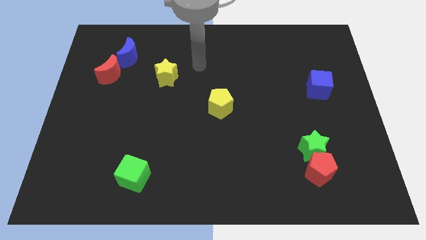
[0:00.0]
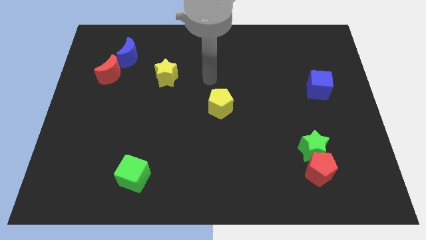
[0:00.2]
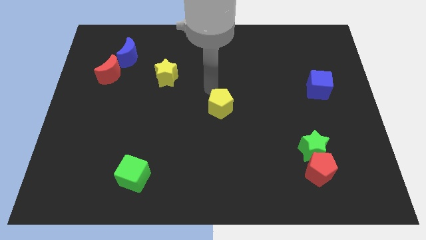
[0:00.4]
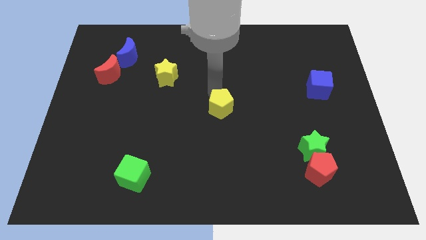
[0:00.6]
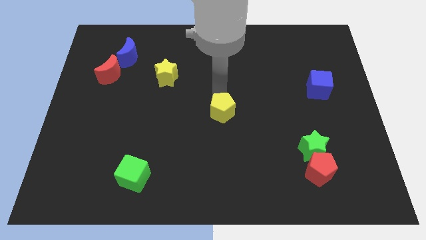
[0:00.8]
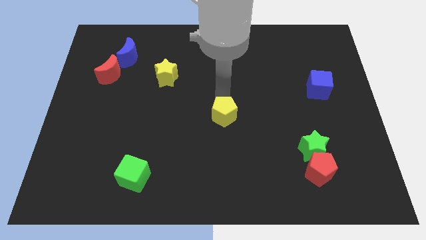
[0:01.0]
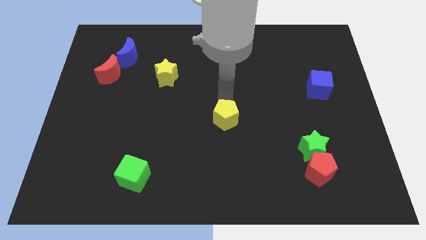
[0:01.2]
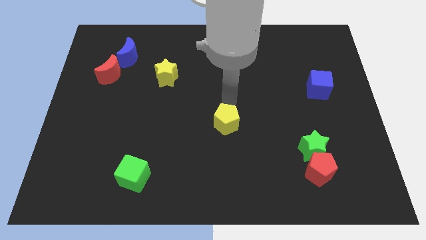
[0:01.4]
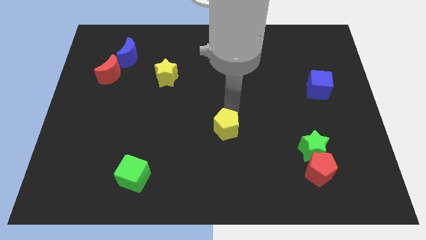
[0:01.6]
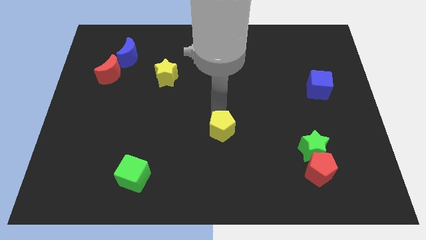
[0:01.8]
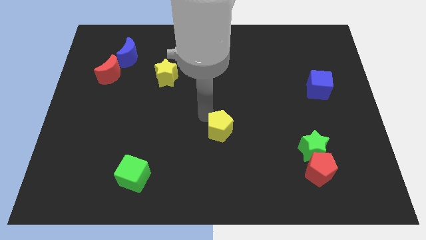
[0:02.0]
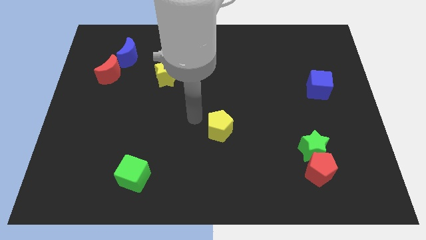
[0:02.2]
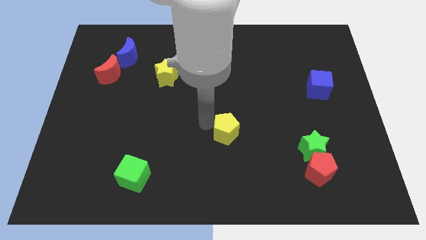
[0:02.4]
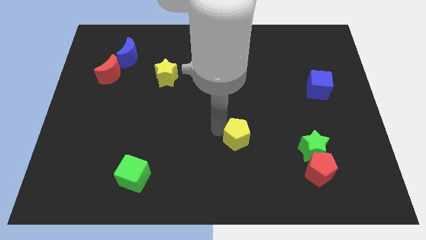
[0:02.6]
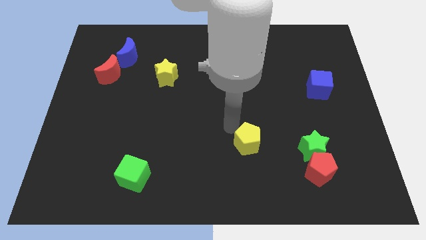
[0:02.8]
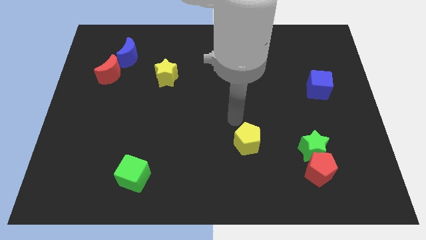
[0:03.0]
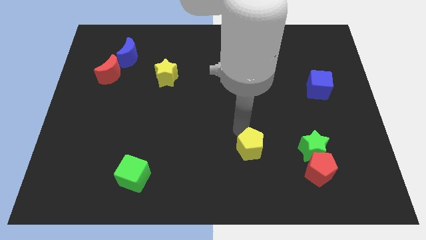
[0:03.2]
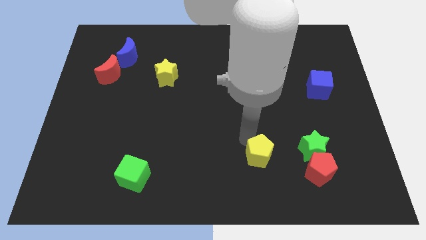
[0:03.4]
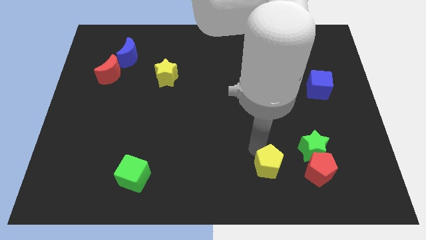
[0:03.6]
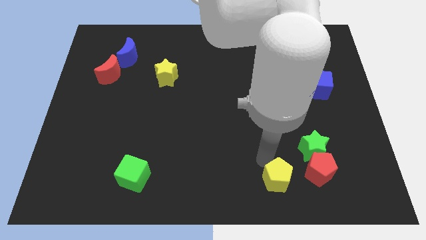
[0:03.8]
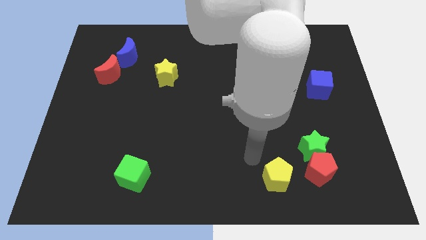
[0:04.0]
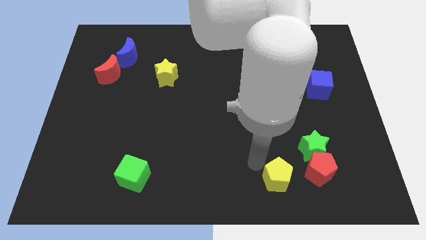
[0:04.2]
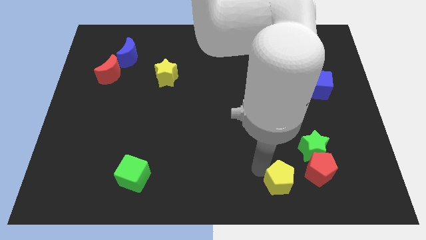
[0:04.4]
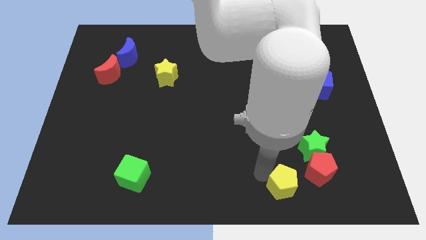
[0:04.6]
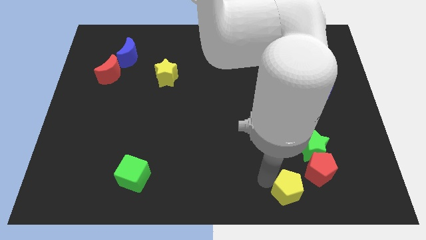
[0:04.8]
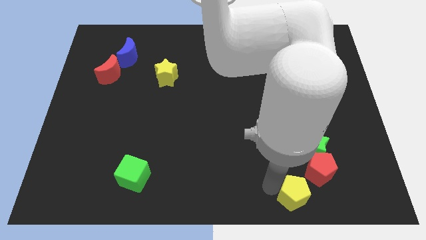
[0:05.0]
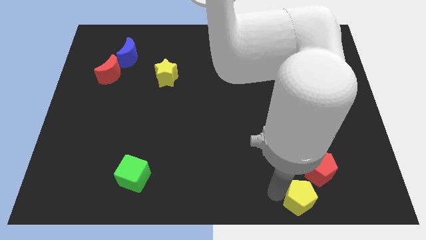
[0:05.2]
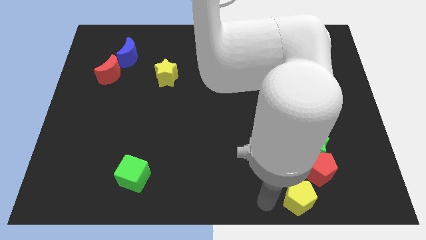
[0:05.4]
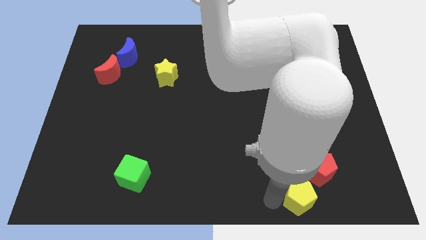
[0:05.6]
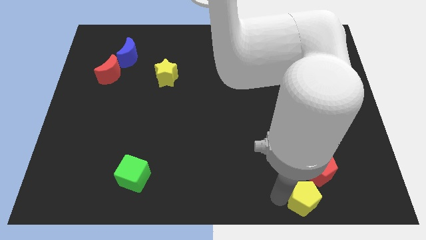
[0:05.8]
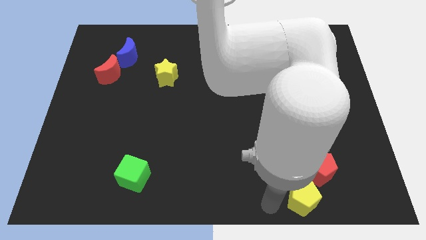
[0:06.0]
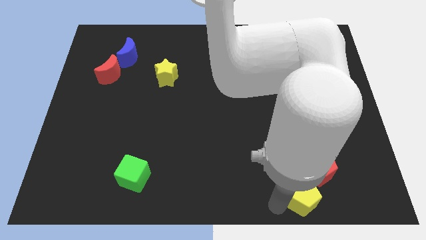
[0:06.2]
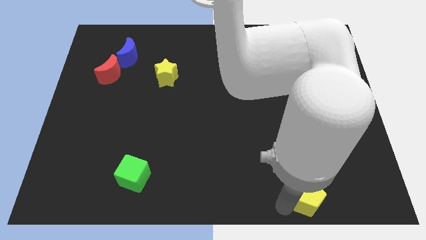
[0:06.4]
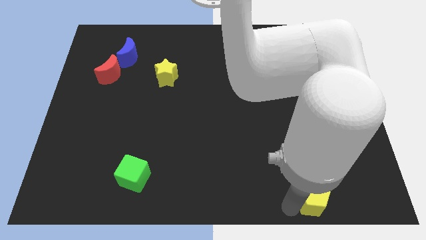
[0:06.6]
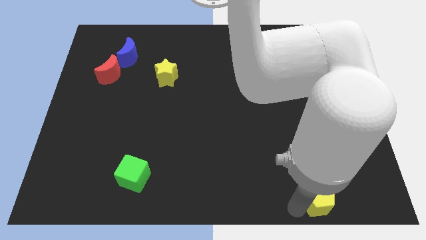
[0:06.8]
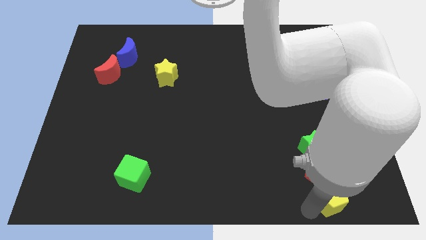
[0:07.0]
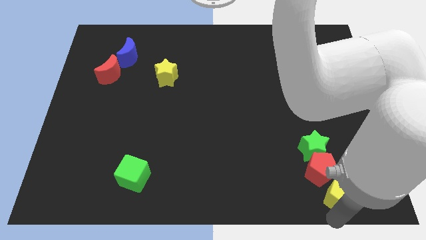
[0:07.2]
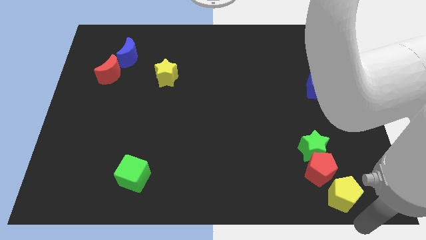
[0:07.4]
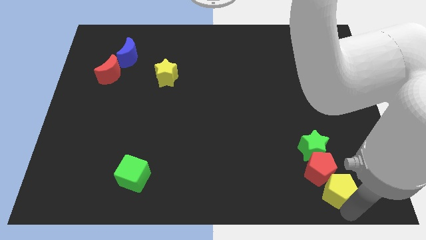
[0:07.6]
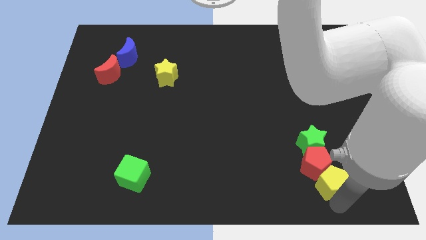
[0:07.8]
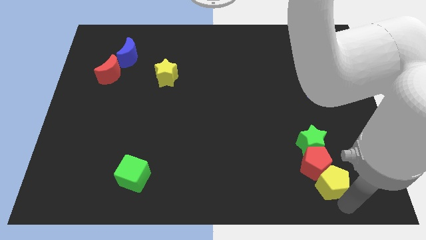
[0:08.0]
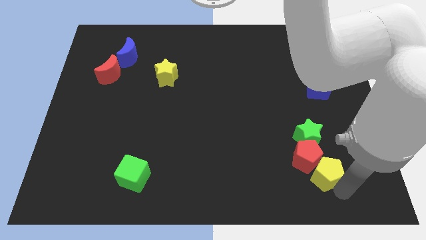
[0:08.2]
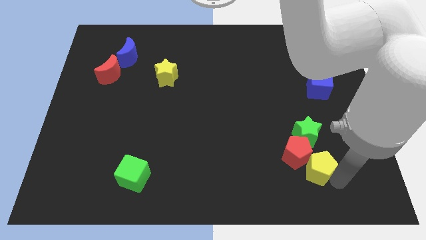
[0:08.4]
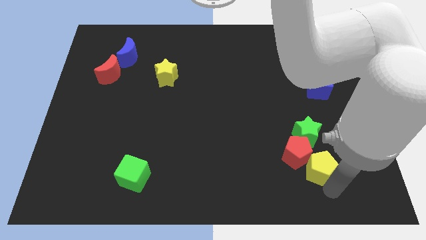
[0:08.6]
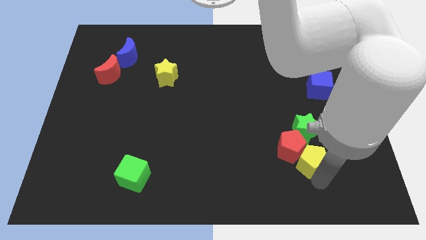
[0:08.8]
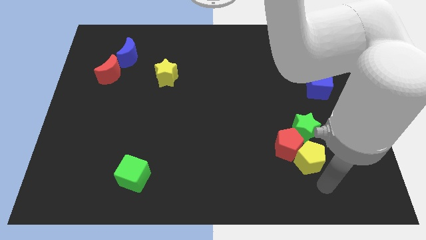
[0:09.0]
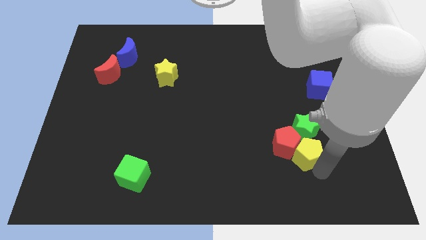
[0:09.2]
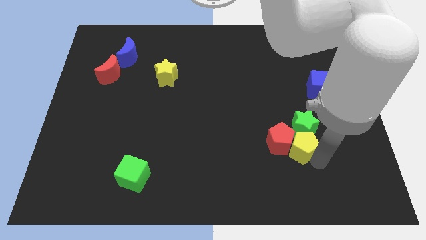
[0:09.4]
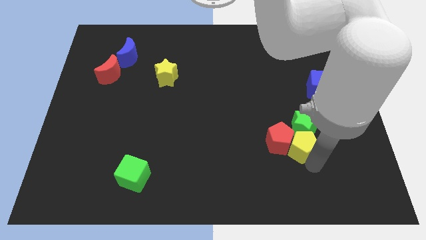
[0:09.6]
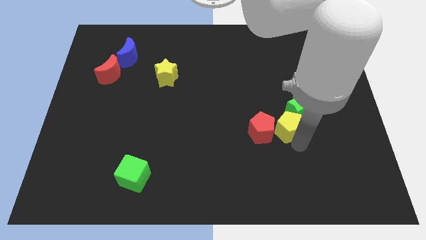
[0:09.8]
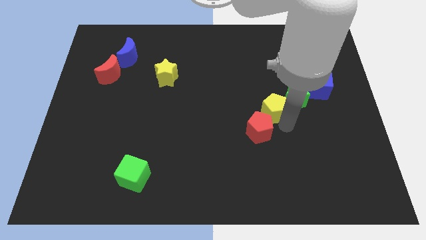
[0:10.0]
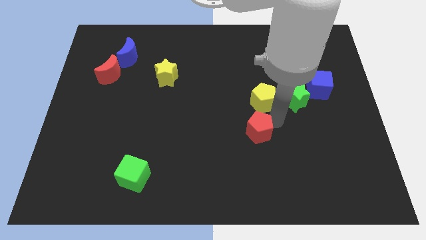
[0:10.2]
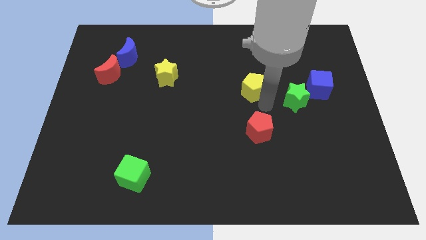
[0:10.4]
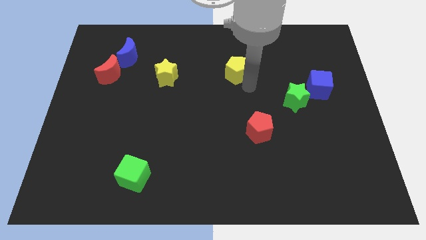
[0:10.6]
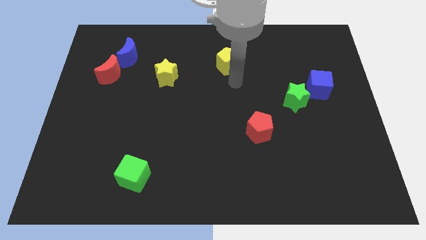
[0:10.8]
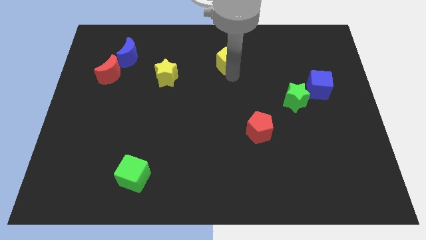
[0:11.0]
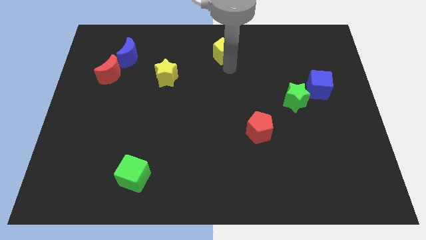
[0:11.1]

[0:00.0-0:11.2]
put the yellow pentagon to the top
